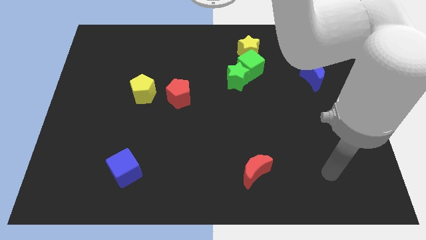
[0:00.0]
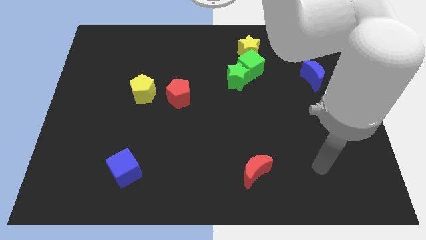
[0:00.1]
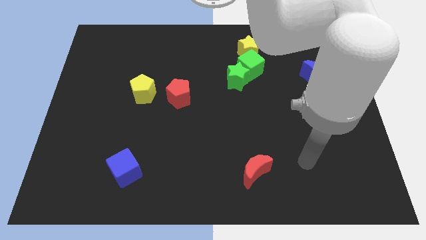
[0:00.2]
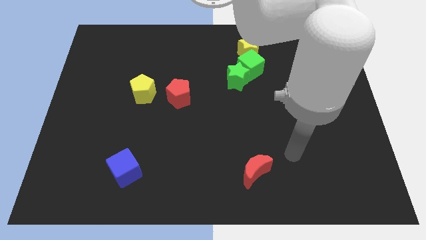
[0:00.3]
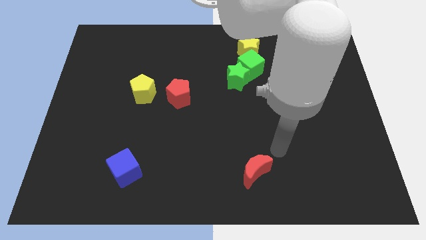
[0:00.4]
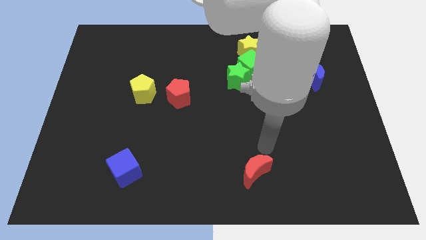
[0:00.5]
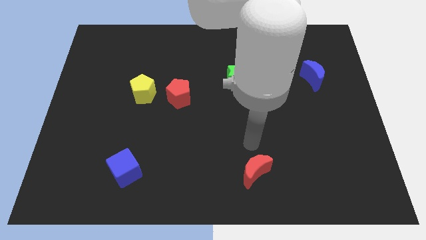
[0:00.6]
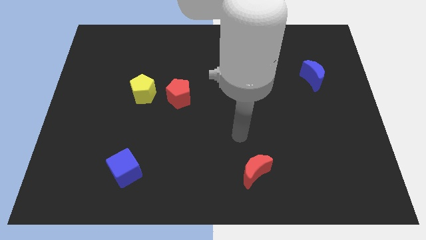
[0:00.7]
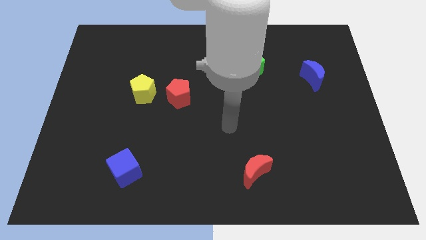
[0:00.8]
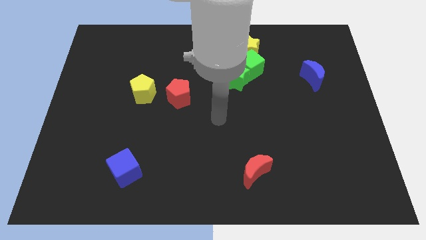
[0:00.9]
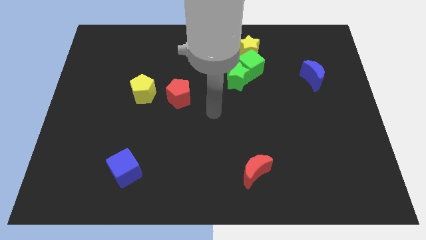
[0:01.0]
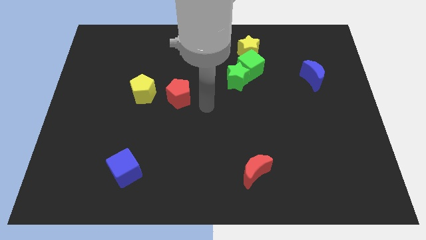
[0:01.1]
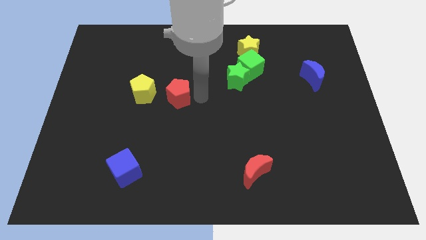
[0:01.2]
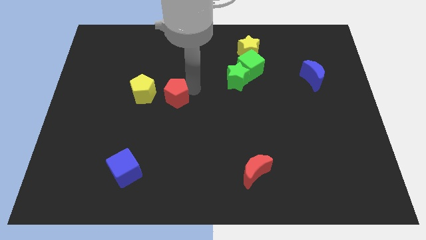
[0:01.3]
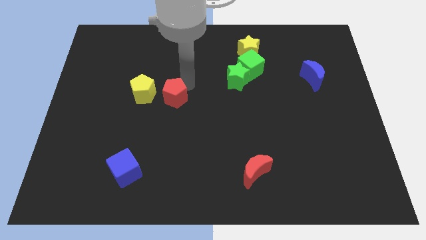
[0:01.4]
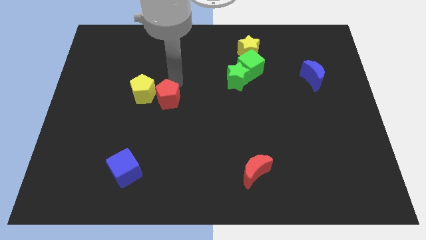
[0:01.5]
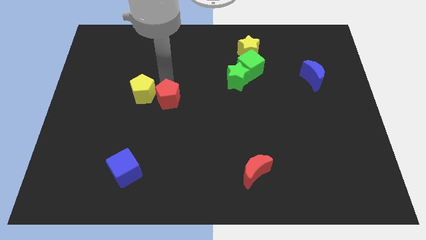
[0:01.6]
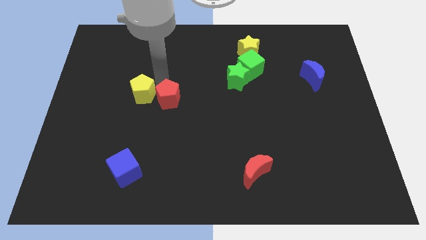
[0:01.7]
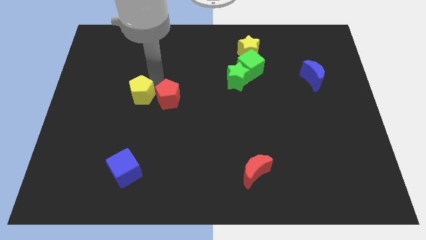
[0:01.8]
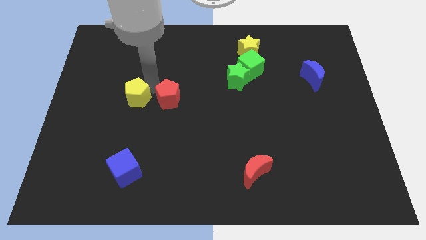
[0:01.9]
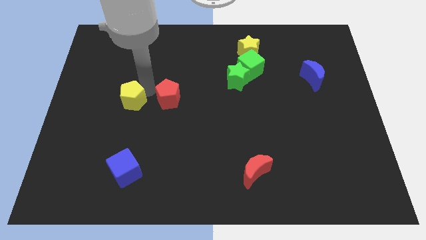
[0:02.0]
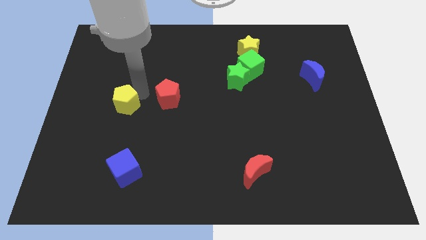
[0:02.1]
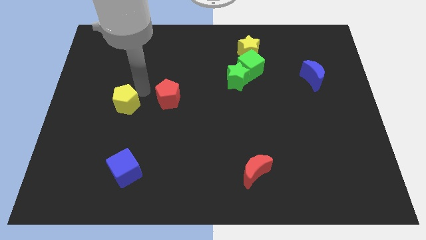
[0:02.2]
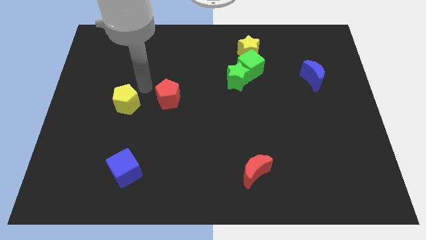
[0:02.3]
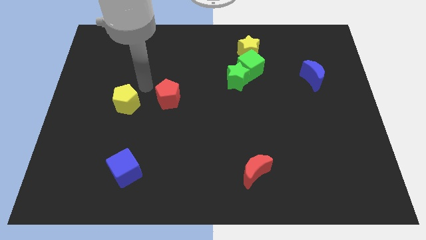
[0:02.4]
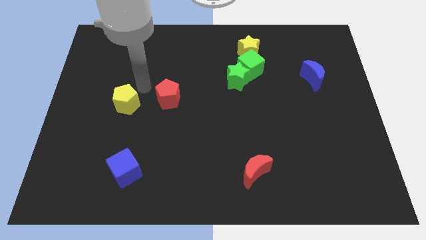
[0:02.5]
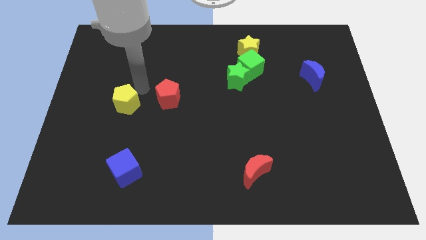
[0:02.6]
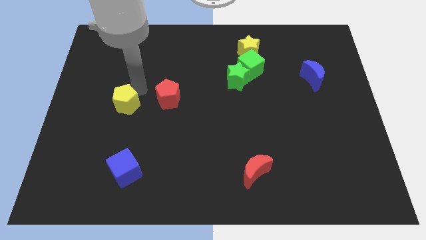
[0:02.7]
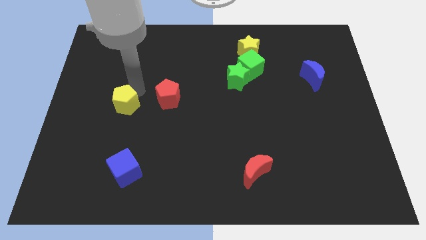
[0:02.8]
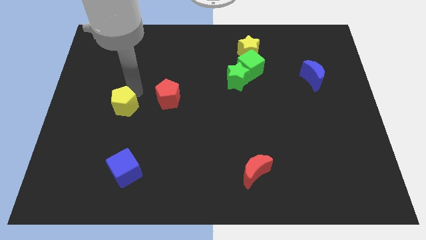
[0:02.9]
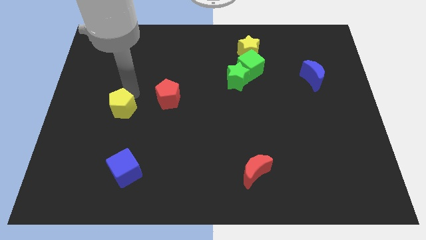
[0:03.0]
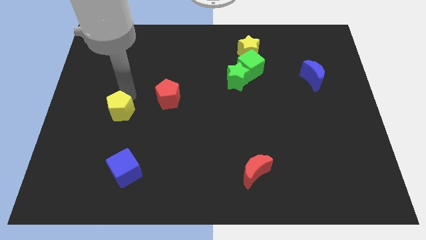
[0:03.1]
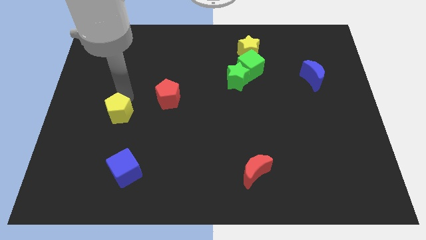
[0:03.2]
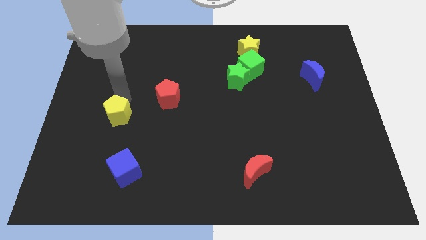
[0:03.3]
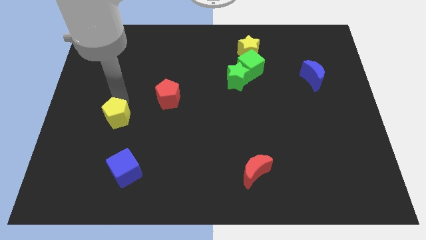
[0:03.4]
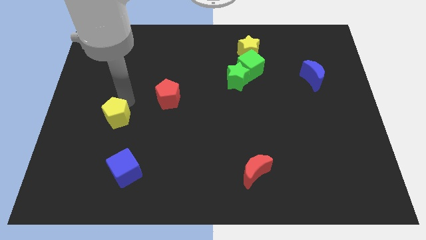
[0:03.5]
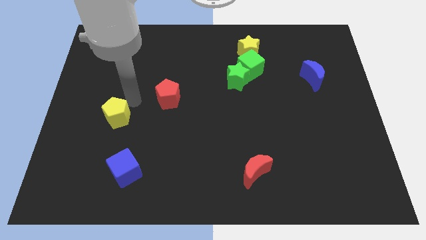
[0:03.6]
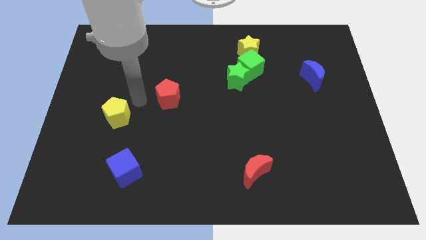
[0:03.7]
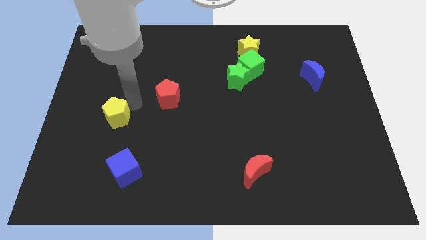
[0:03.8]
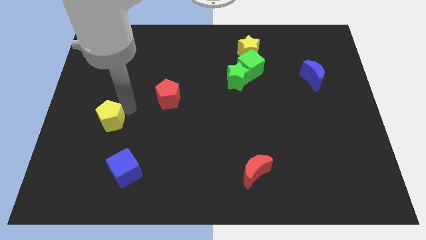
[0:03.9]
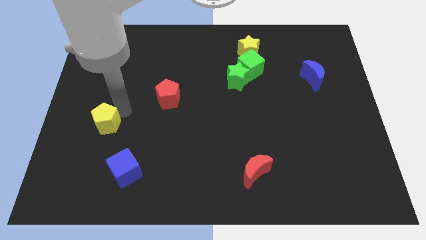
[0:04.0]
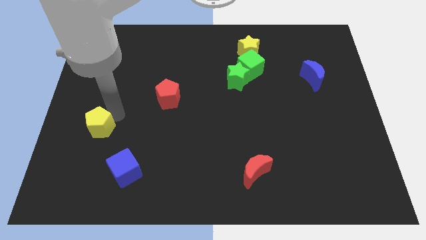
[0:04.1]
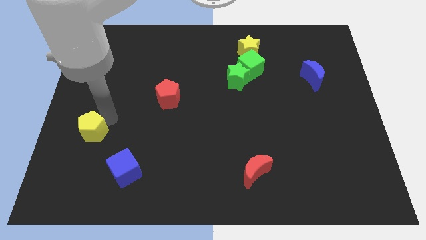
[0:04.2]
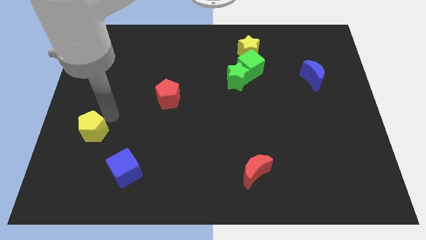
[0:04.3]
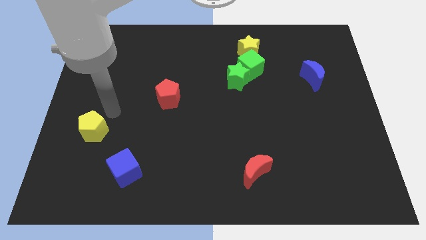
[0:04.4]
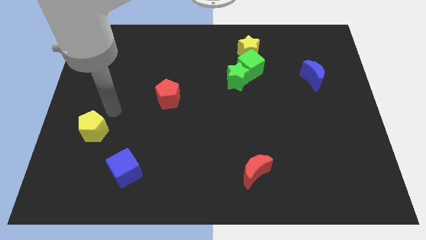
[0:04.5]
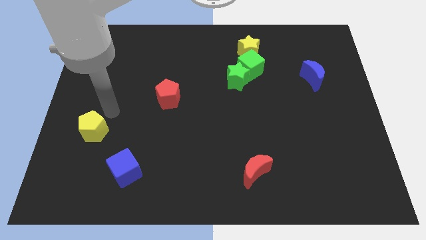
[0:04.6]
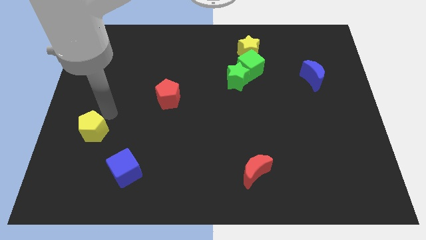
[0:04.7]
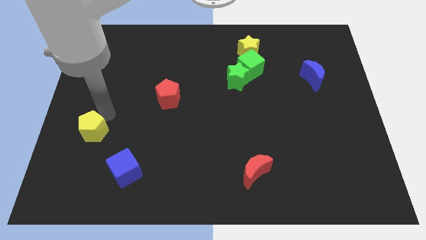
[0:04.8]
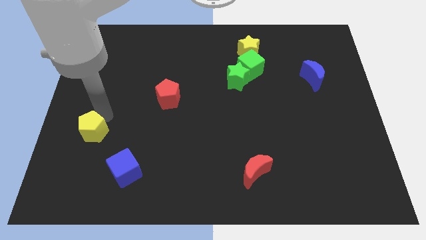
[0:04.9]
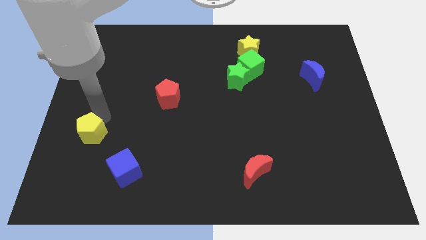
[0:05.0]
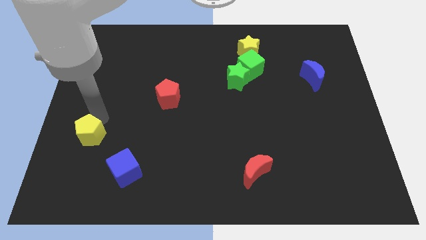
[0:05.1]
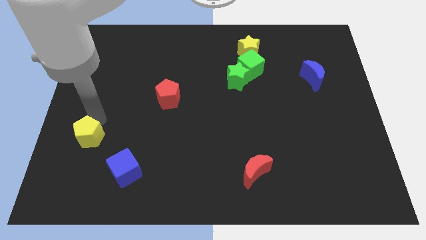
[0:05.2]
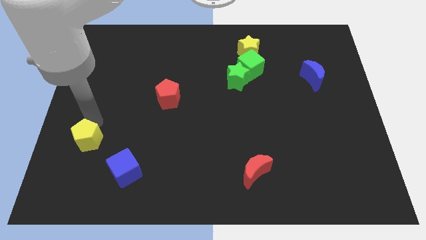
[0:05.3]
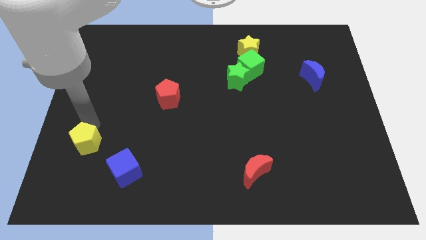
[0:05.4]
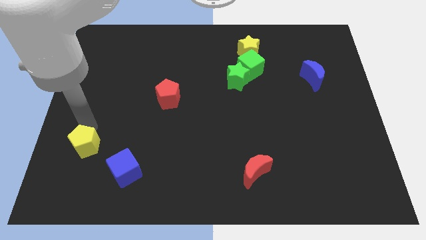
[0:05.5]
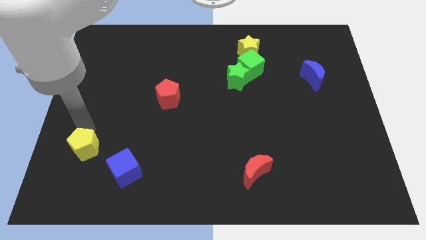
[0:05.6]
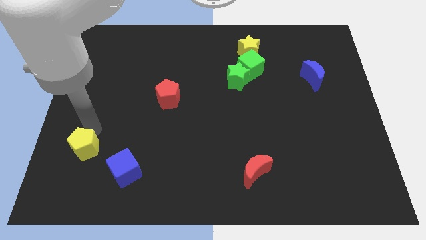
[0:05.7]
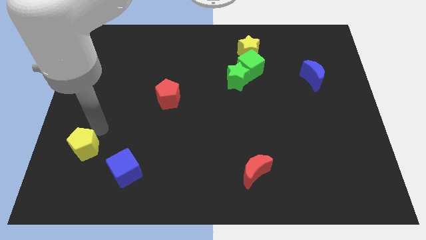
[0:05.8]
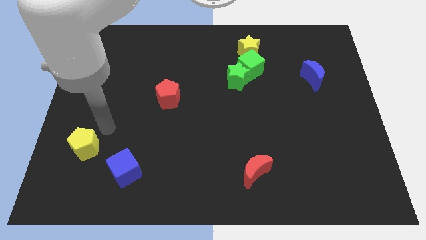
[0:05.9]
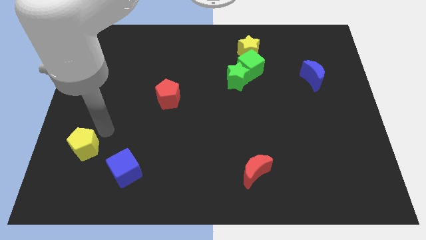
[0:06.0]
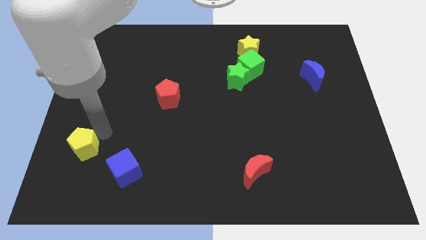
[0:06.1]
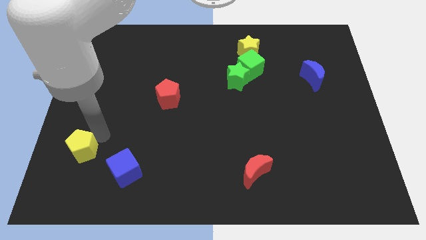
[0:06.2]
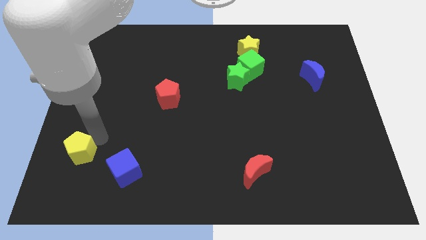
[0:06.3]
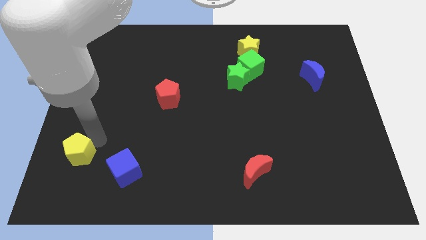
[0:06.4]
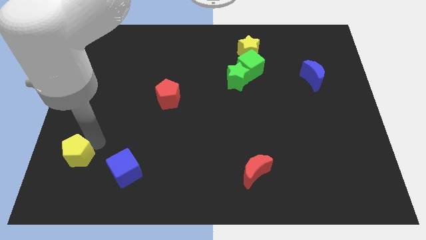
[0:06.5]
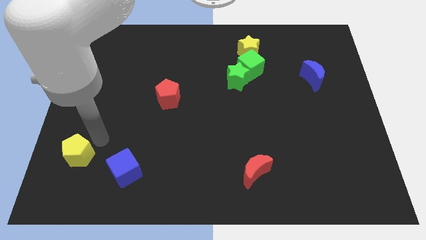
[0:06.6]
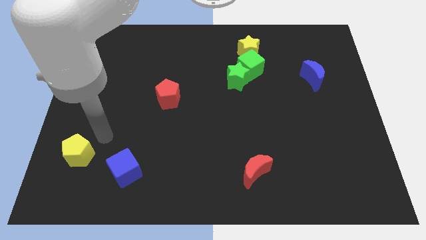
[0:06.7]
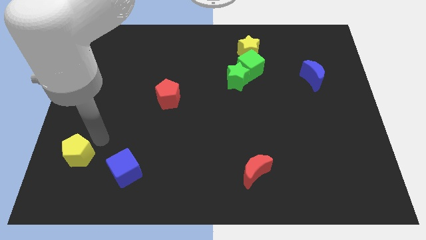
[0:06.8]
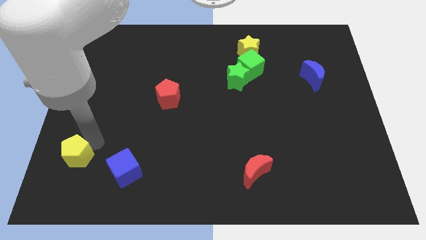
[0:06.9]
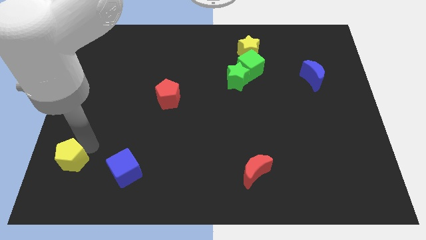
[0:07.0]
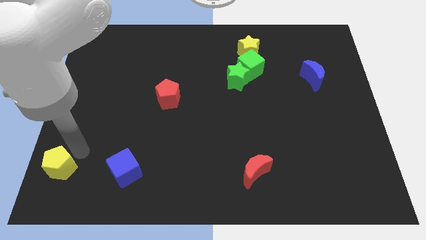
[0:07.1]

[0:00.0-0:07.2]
move the yellow pentagon to the bottom left corner
